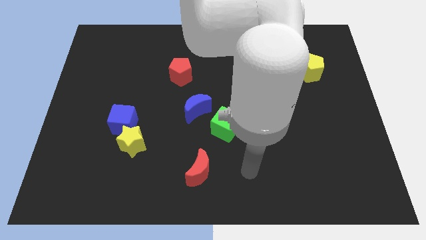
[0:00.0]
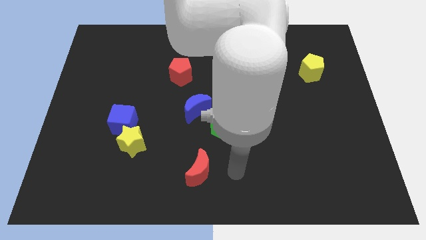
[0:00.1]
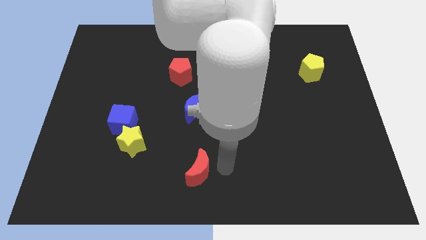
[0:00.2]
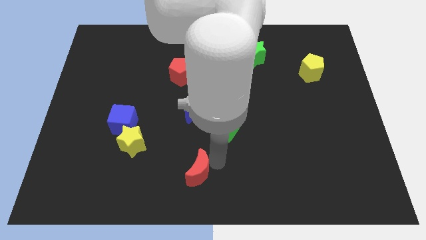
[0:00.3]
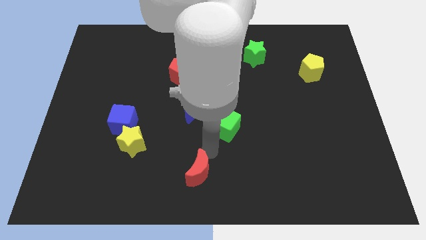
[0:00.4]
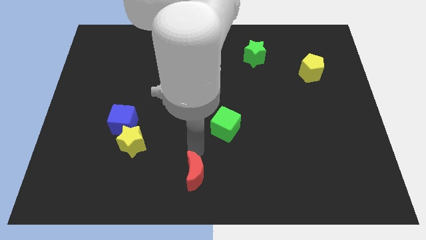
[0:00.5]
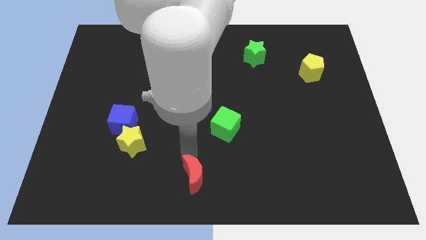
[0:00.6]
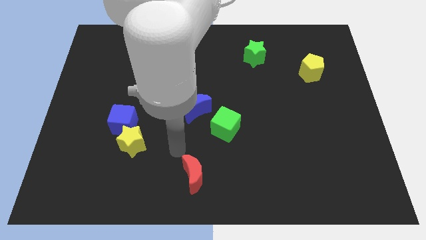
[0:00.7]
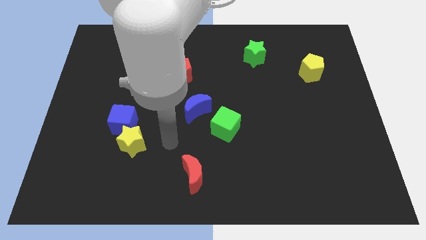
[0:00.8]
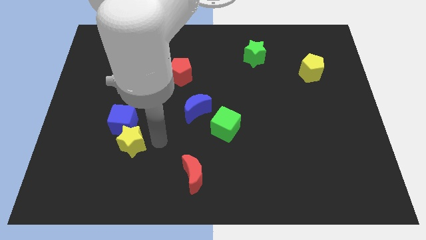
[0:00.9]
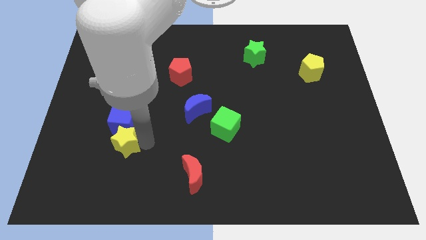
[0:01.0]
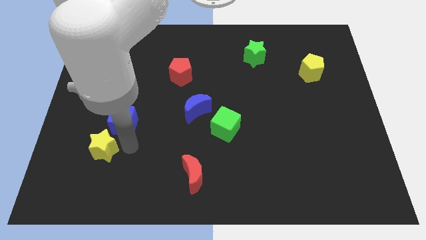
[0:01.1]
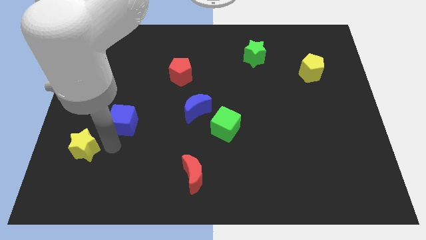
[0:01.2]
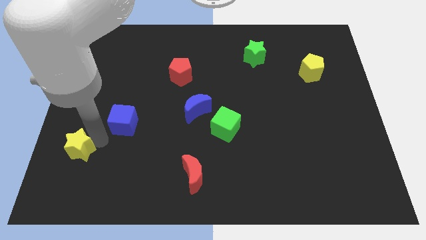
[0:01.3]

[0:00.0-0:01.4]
pull the blue cube apart from the yellow star

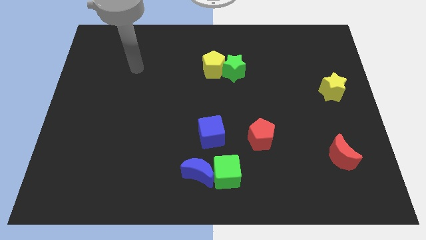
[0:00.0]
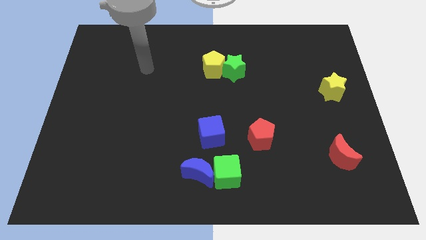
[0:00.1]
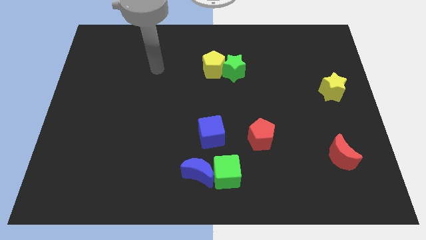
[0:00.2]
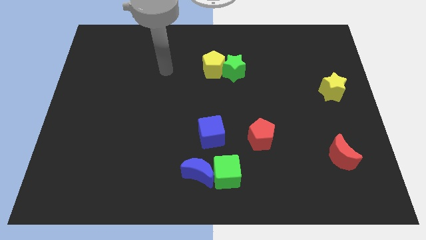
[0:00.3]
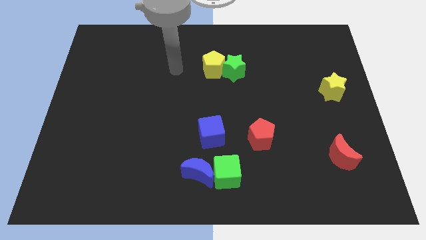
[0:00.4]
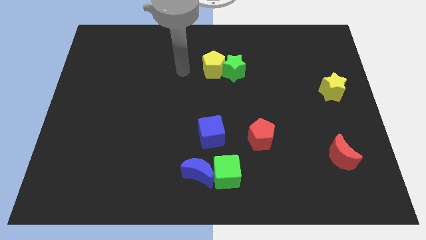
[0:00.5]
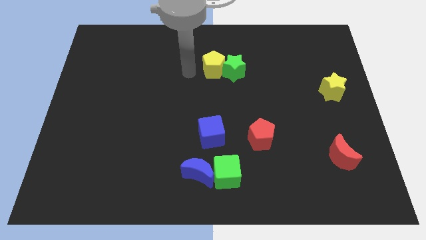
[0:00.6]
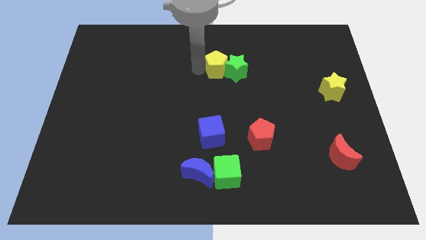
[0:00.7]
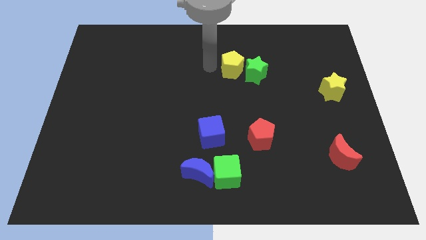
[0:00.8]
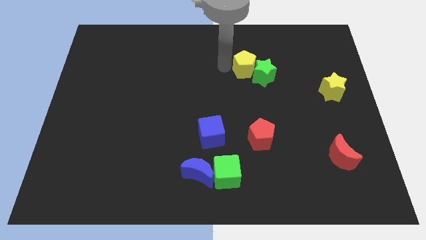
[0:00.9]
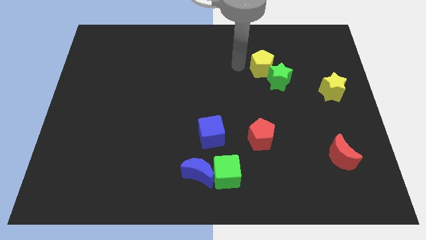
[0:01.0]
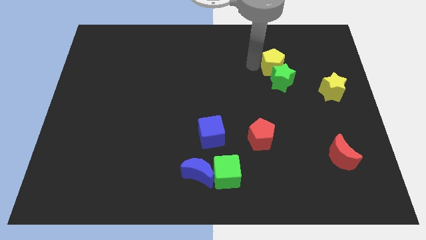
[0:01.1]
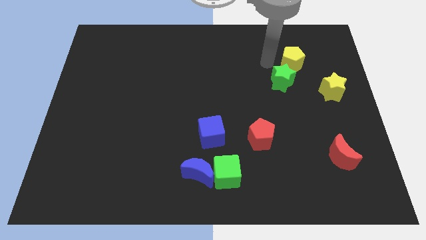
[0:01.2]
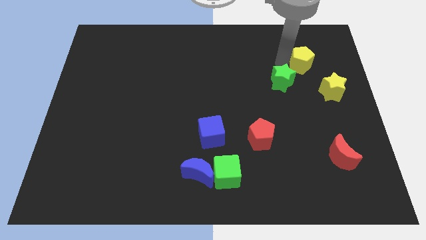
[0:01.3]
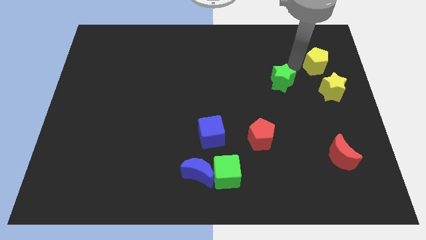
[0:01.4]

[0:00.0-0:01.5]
separate the green star from the yellow pentagon

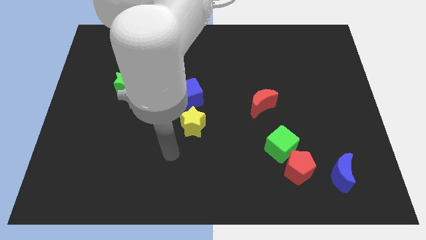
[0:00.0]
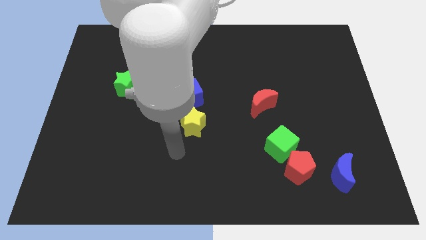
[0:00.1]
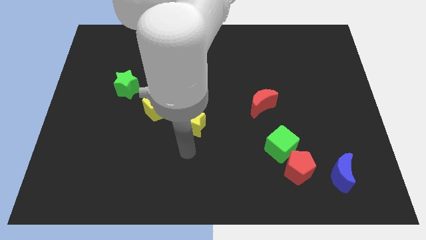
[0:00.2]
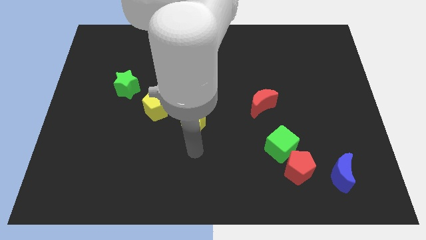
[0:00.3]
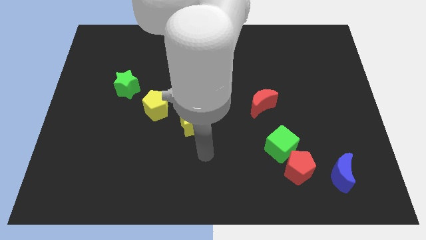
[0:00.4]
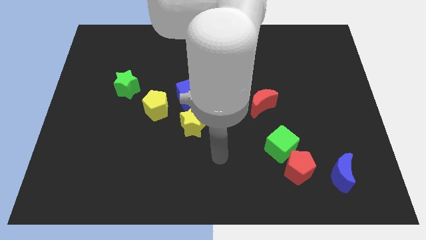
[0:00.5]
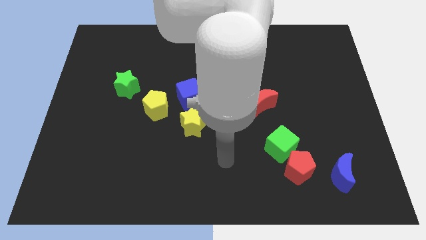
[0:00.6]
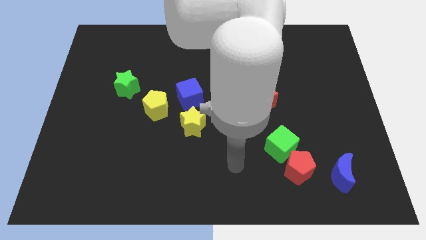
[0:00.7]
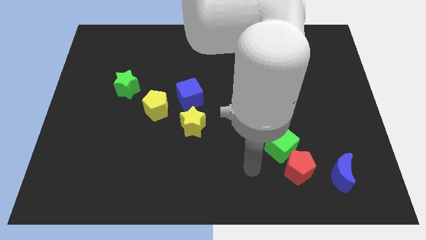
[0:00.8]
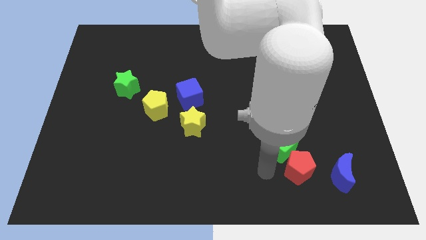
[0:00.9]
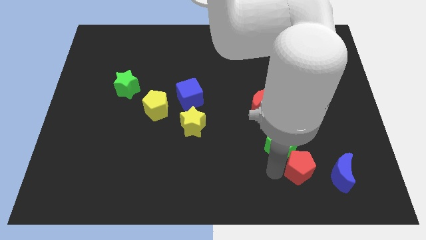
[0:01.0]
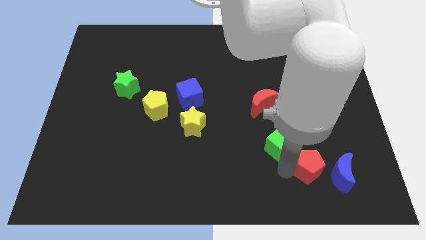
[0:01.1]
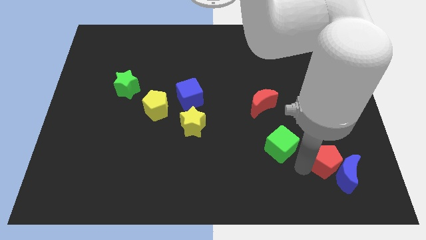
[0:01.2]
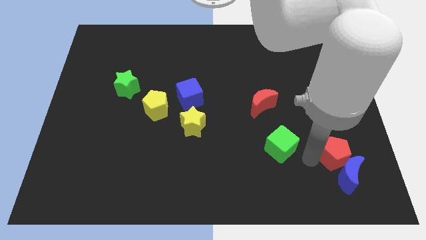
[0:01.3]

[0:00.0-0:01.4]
pull the green cube apart from the red pentagon

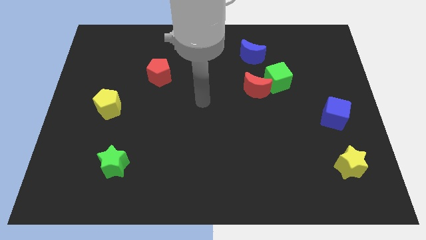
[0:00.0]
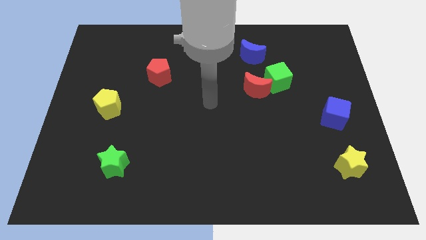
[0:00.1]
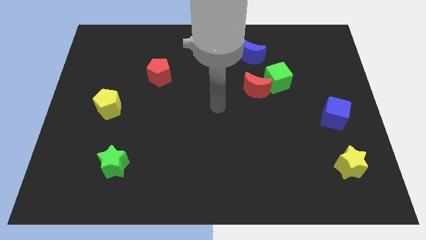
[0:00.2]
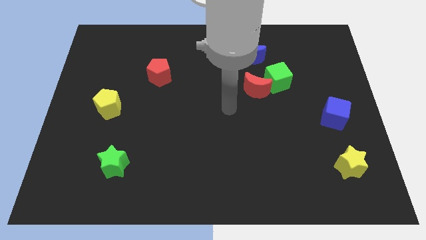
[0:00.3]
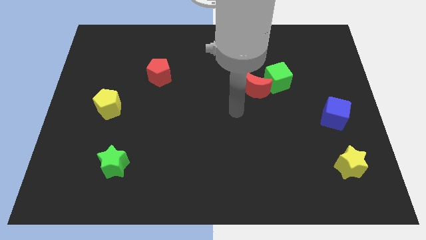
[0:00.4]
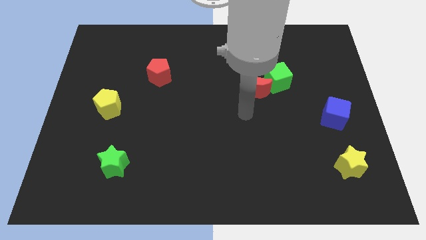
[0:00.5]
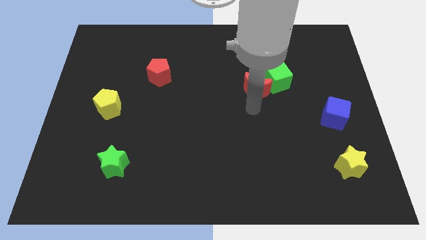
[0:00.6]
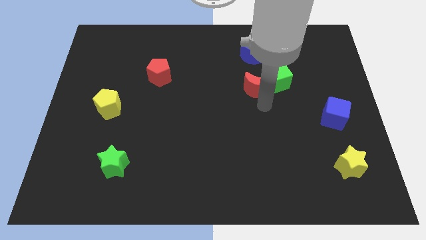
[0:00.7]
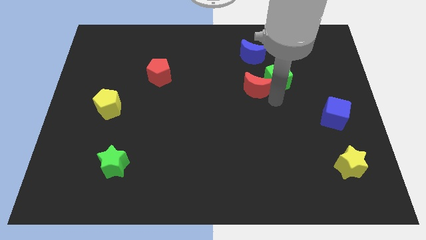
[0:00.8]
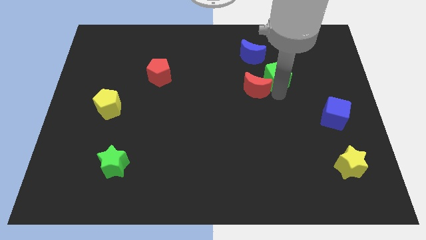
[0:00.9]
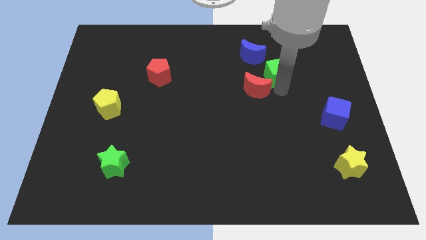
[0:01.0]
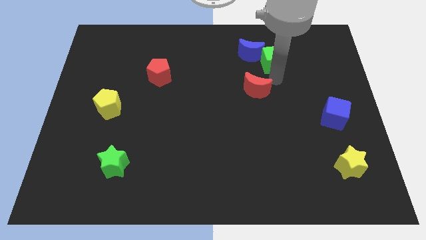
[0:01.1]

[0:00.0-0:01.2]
pull the red moon apart from the green cube

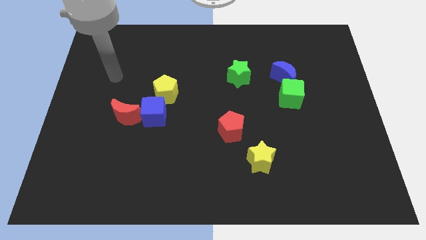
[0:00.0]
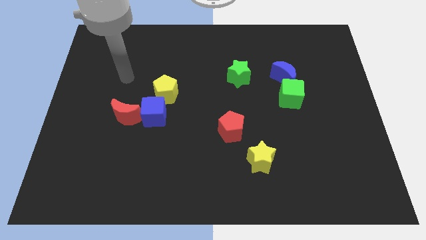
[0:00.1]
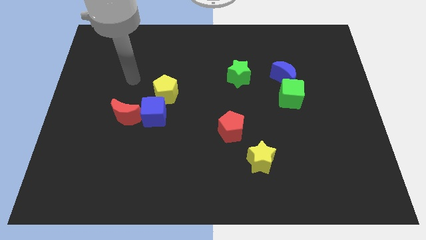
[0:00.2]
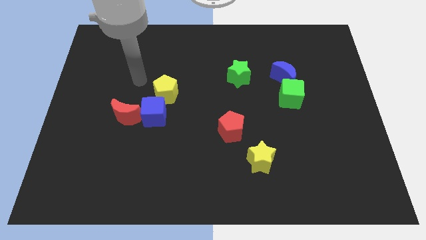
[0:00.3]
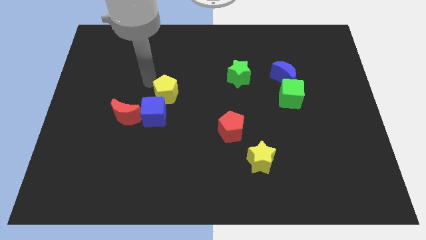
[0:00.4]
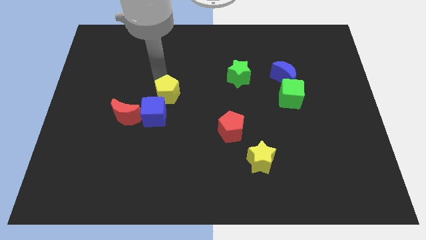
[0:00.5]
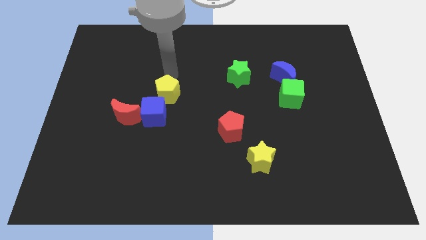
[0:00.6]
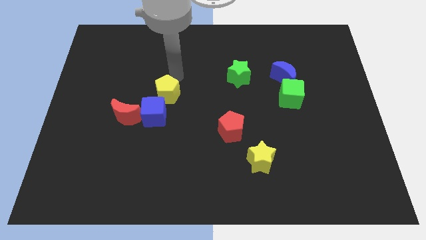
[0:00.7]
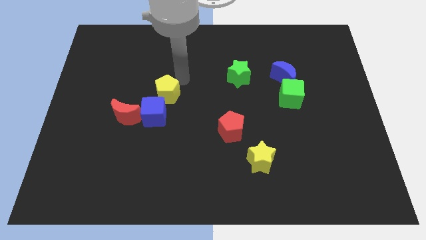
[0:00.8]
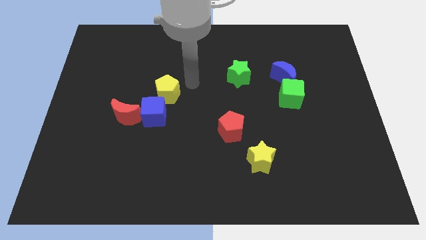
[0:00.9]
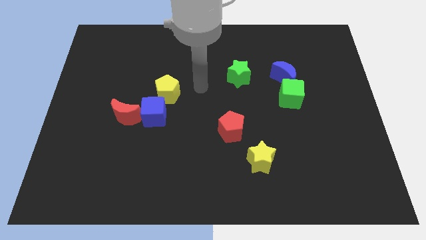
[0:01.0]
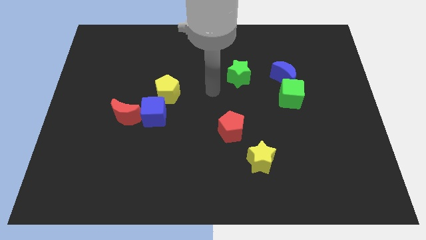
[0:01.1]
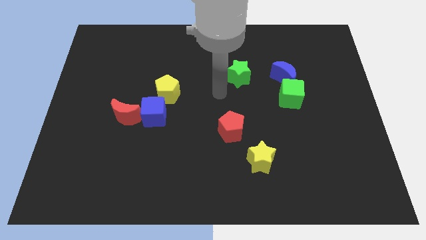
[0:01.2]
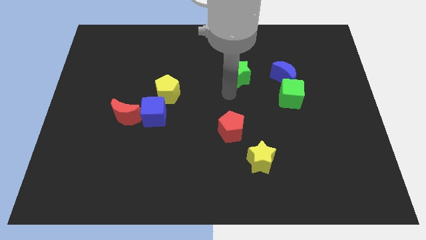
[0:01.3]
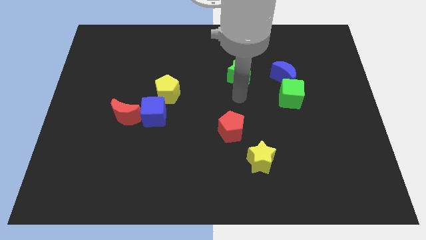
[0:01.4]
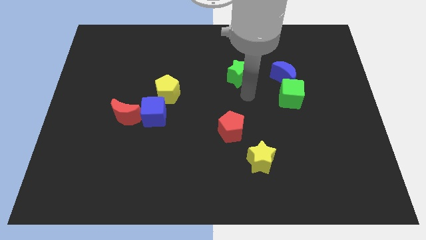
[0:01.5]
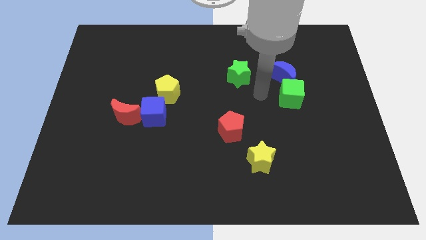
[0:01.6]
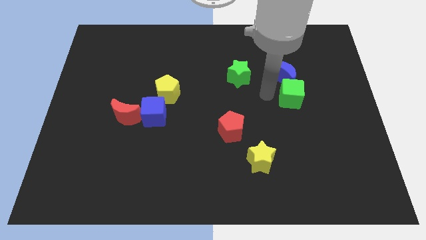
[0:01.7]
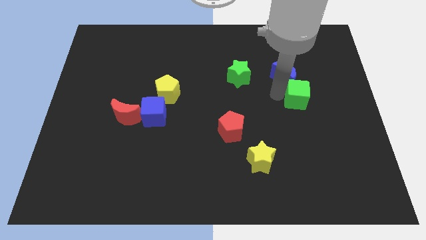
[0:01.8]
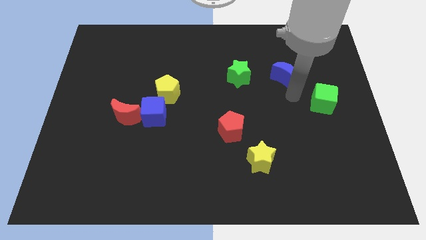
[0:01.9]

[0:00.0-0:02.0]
move the blue moon away from the green cube

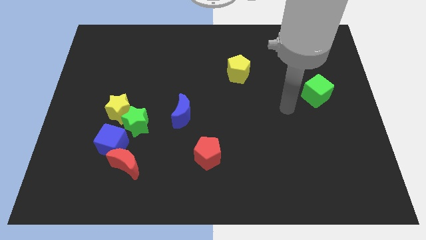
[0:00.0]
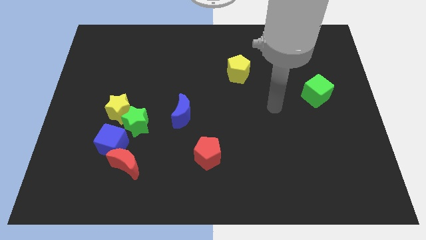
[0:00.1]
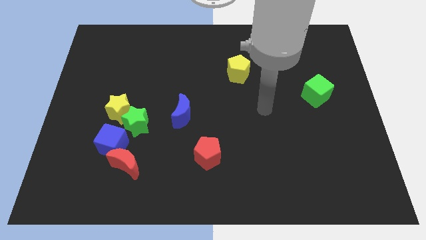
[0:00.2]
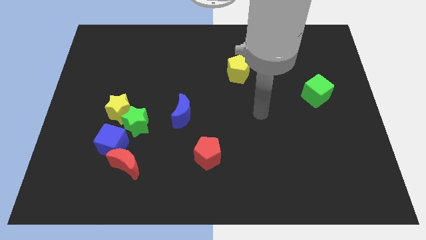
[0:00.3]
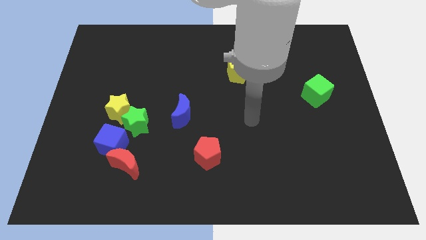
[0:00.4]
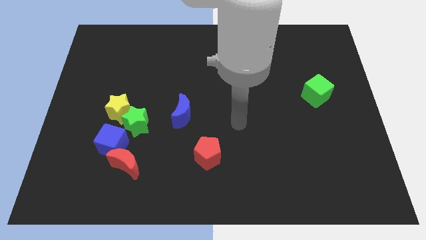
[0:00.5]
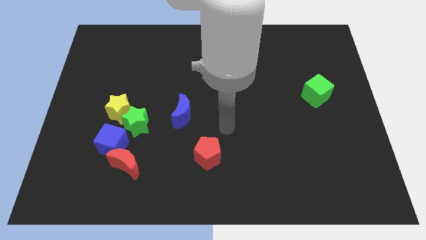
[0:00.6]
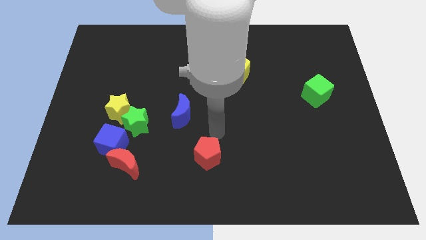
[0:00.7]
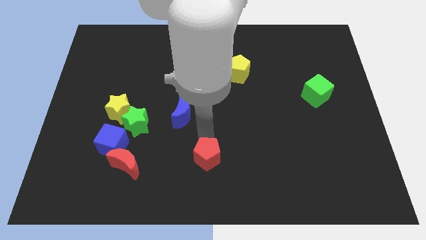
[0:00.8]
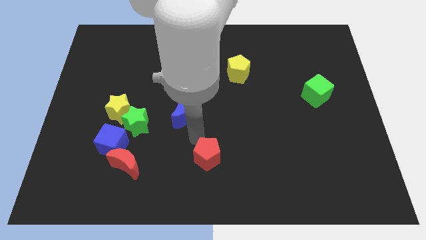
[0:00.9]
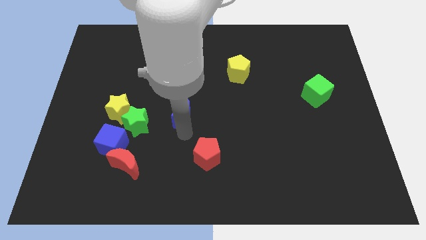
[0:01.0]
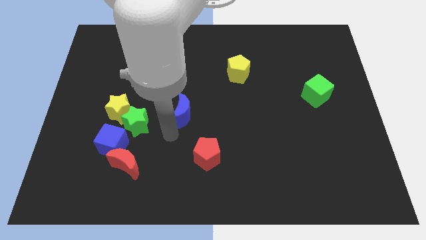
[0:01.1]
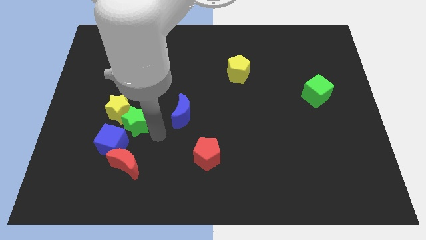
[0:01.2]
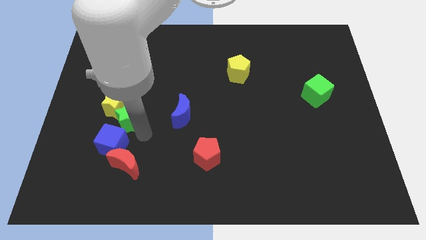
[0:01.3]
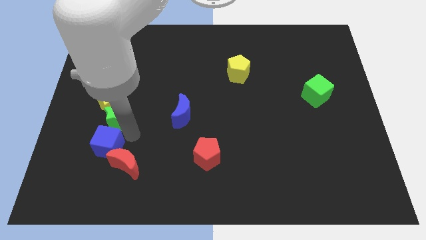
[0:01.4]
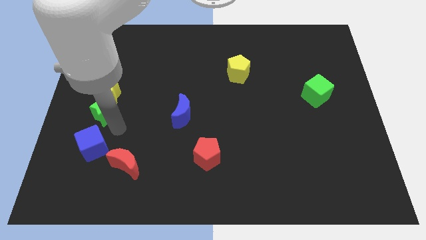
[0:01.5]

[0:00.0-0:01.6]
pull the yellow star apart from the green star and blue cube

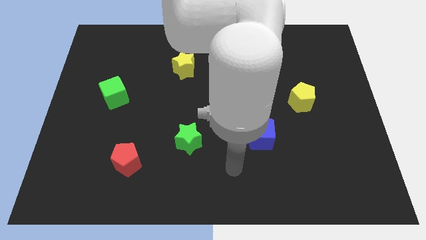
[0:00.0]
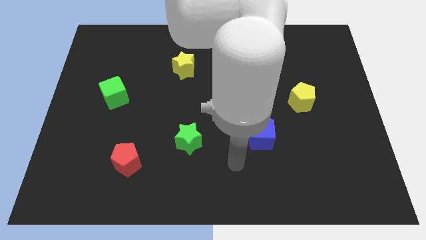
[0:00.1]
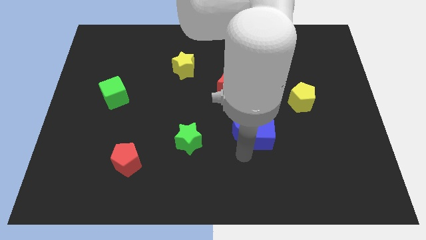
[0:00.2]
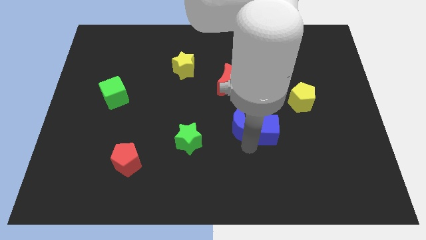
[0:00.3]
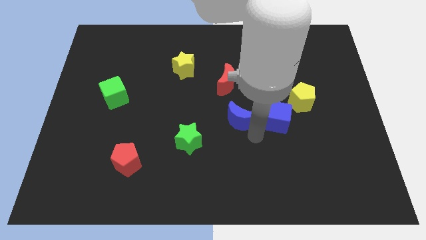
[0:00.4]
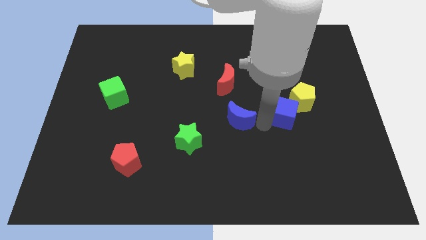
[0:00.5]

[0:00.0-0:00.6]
pull the blue moon apart from the blue cube
